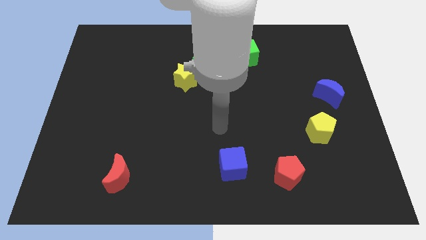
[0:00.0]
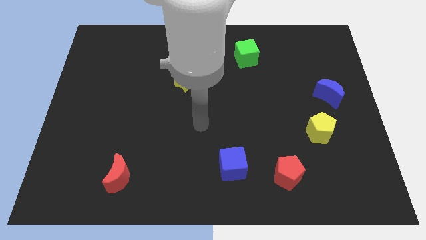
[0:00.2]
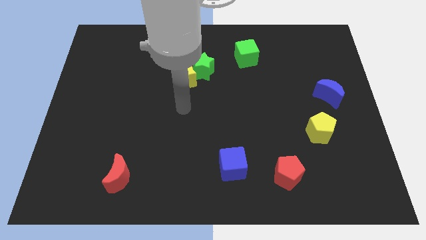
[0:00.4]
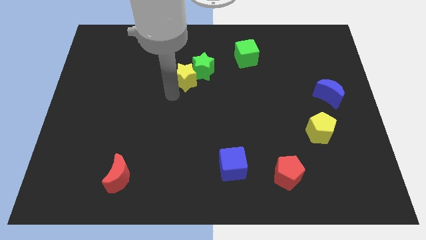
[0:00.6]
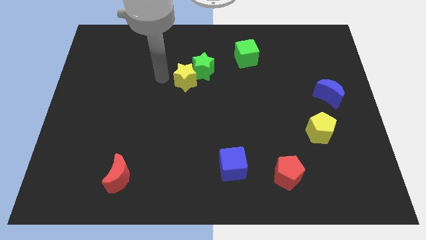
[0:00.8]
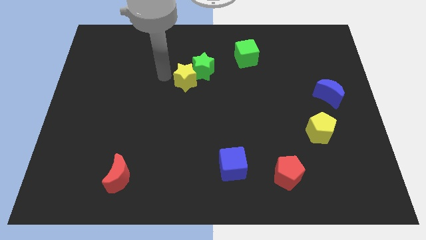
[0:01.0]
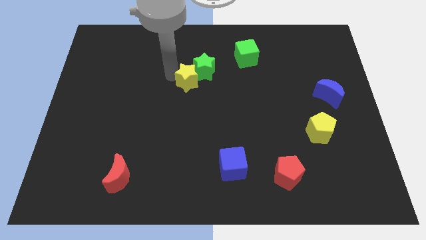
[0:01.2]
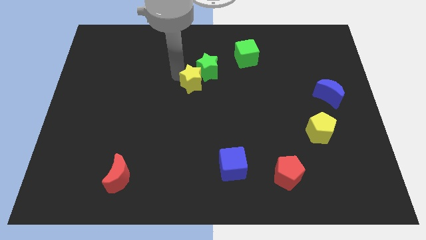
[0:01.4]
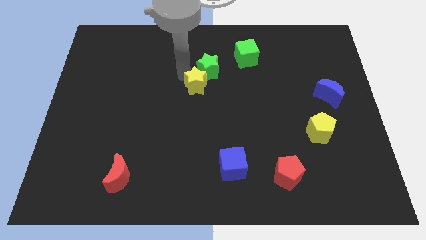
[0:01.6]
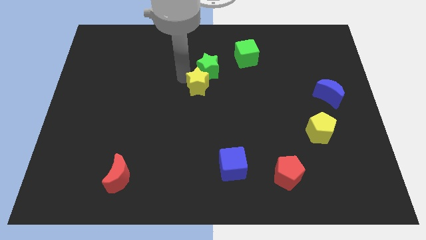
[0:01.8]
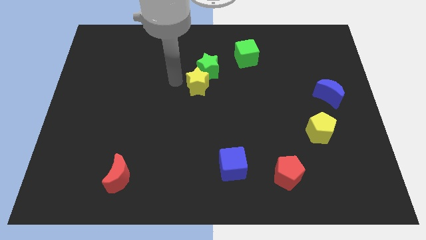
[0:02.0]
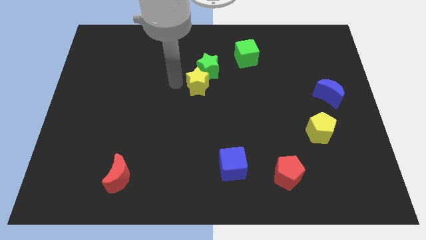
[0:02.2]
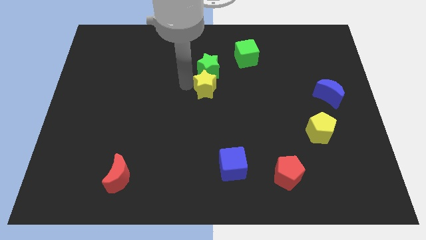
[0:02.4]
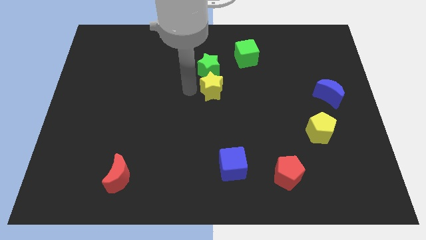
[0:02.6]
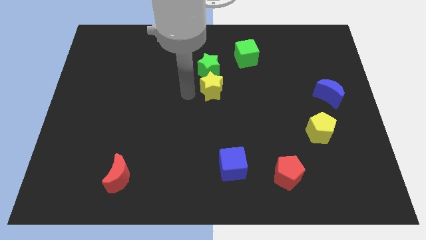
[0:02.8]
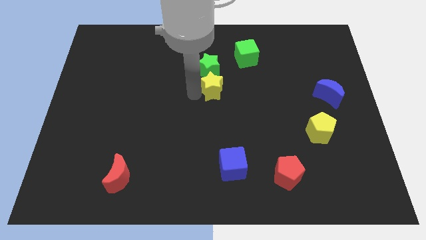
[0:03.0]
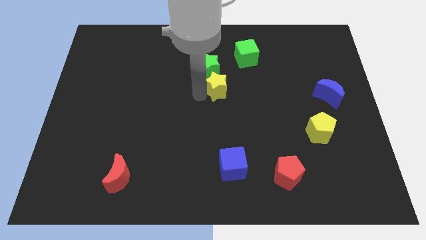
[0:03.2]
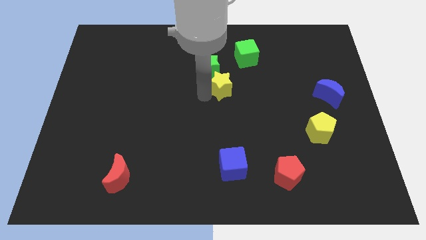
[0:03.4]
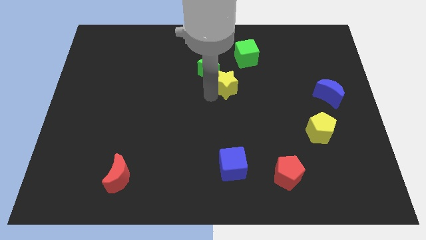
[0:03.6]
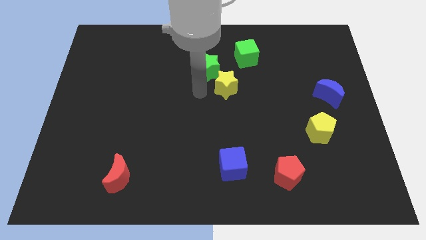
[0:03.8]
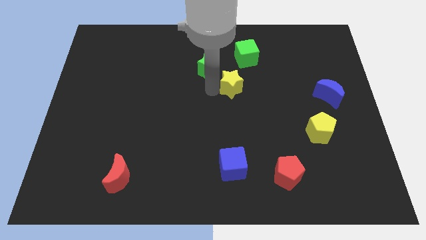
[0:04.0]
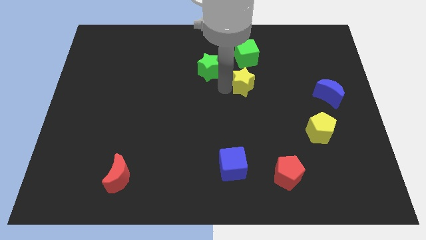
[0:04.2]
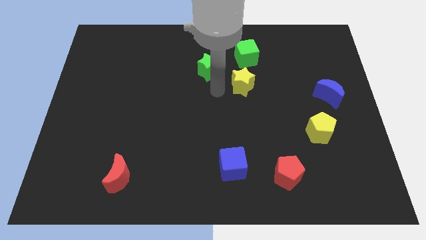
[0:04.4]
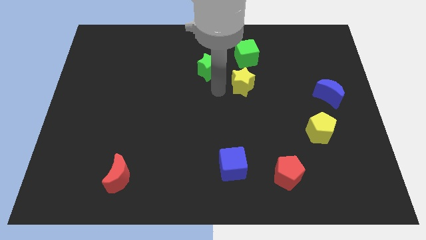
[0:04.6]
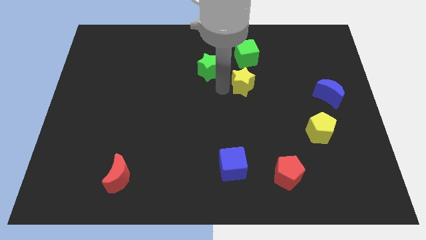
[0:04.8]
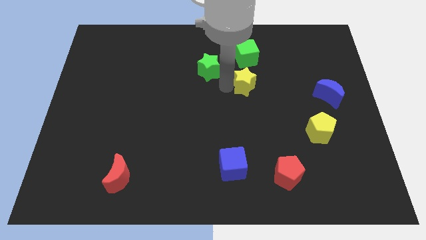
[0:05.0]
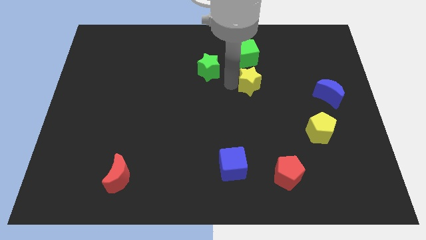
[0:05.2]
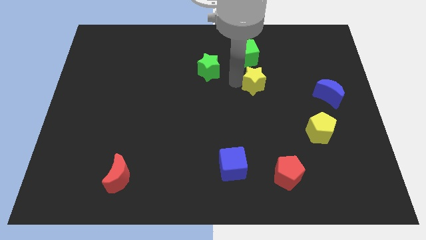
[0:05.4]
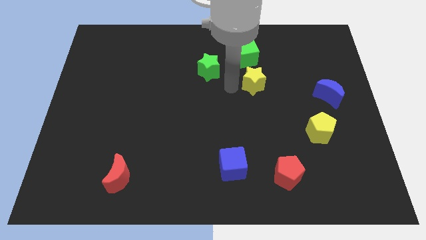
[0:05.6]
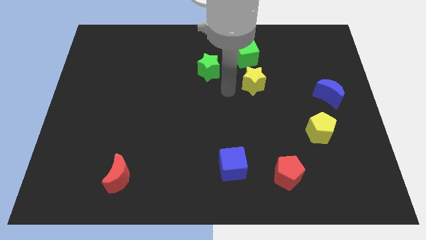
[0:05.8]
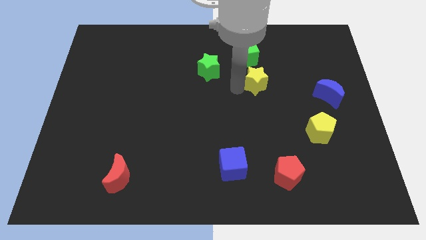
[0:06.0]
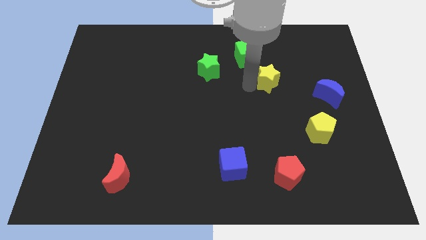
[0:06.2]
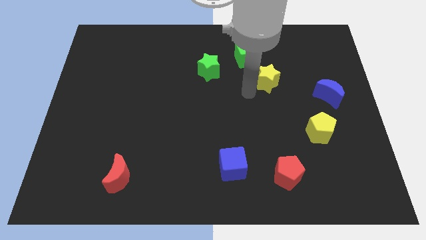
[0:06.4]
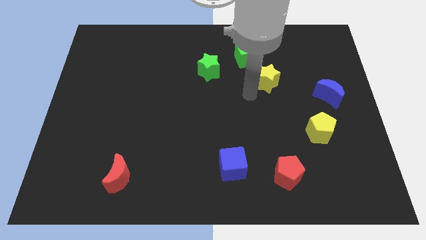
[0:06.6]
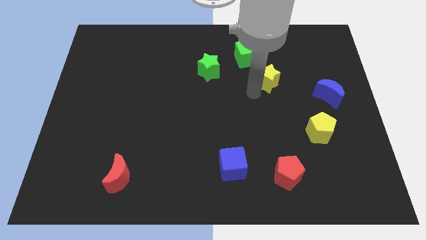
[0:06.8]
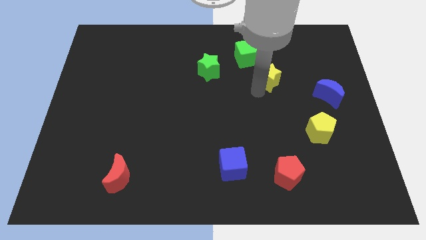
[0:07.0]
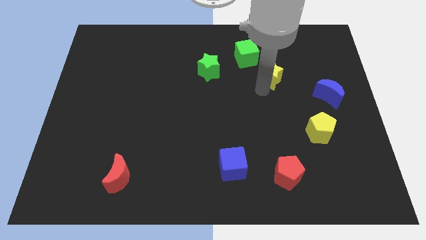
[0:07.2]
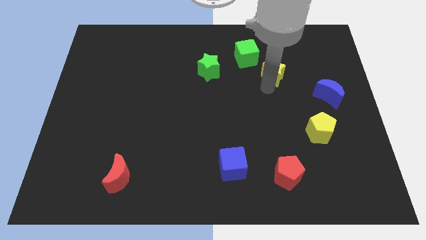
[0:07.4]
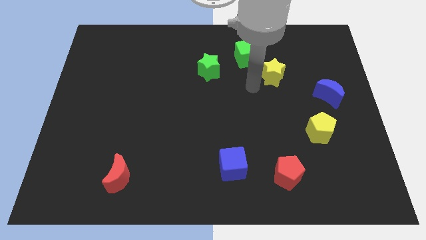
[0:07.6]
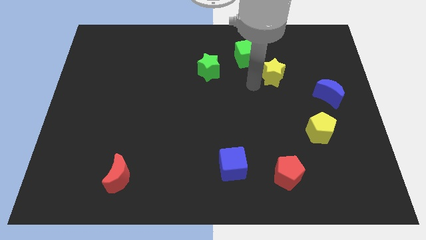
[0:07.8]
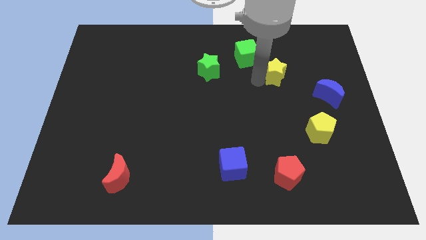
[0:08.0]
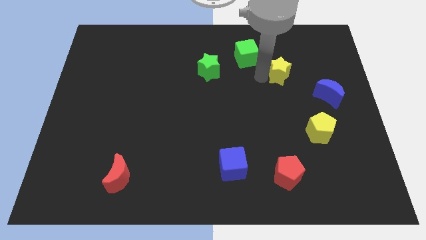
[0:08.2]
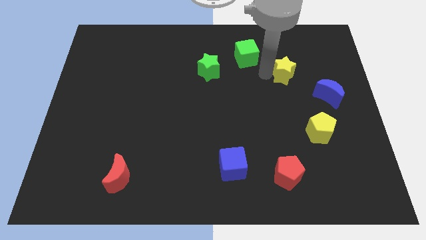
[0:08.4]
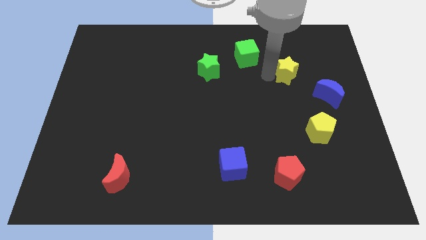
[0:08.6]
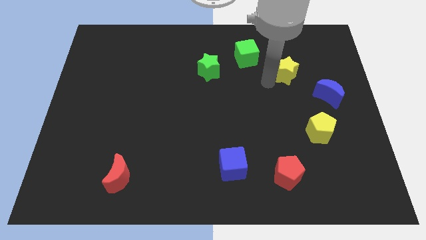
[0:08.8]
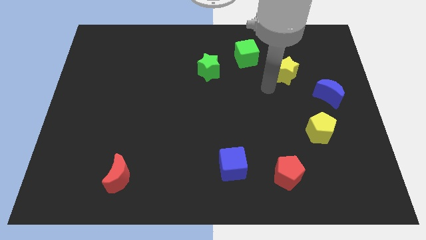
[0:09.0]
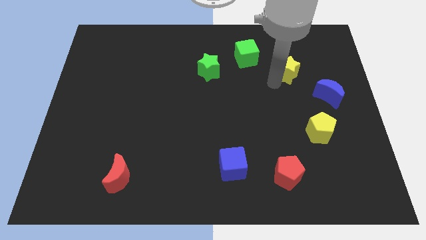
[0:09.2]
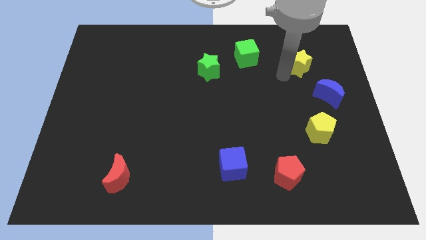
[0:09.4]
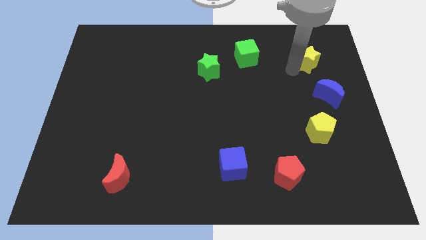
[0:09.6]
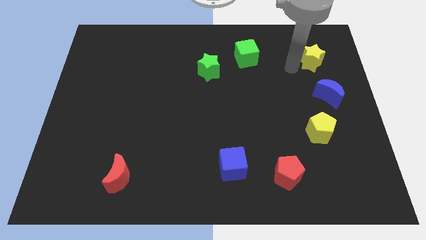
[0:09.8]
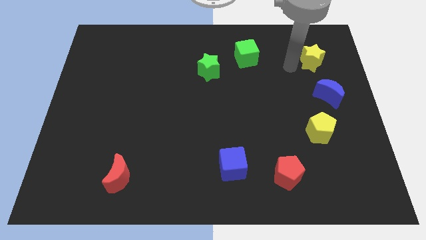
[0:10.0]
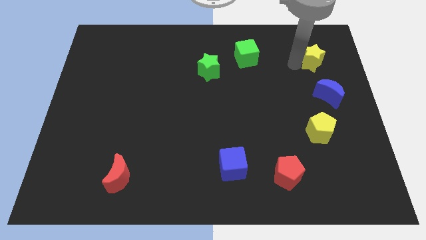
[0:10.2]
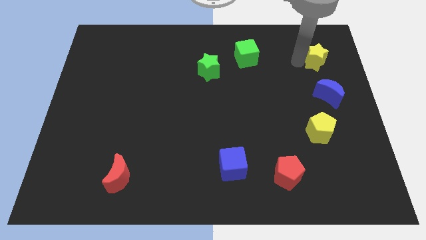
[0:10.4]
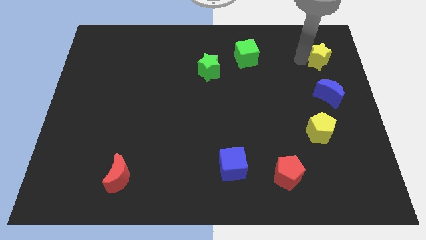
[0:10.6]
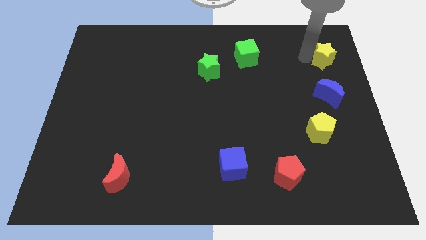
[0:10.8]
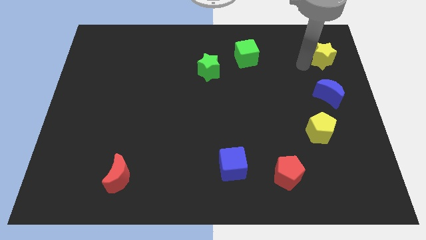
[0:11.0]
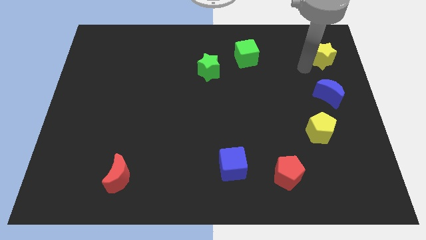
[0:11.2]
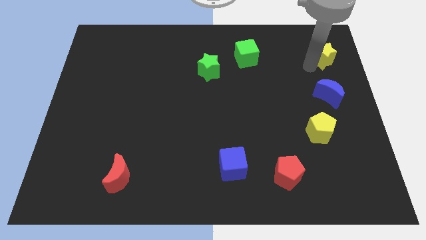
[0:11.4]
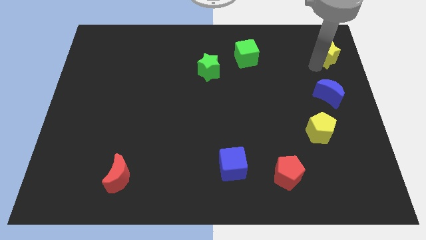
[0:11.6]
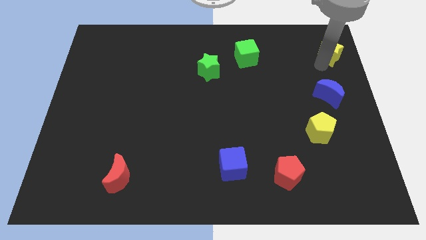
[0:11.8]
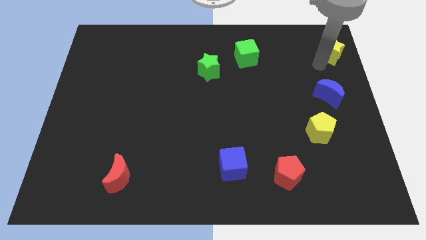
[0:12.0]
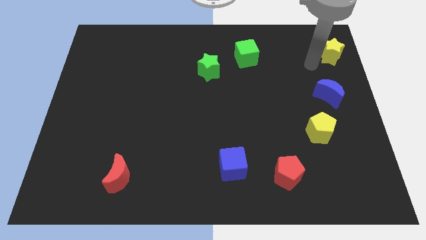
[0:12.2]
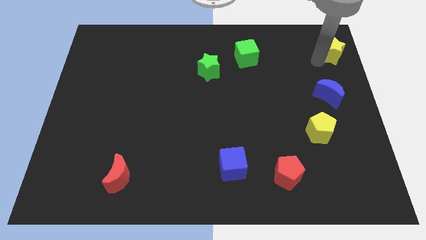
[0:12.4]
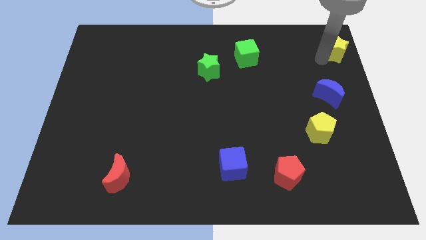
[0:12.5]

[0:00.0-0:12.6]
slide the yellow star to the top right
